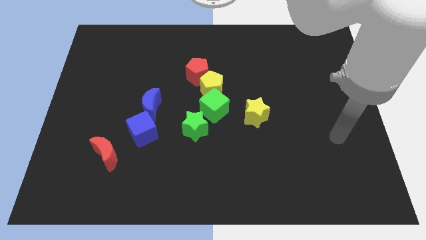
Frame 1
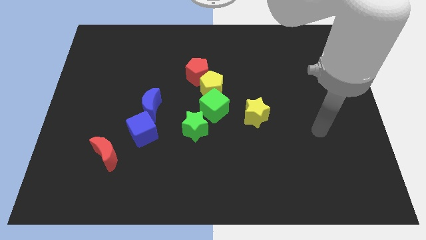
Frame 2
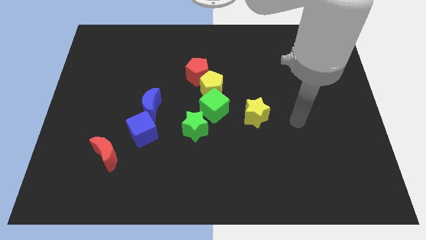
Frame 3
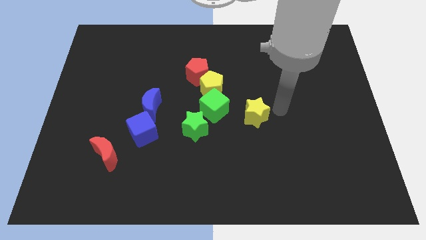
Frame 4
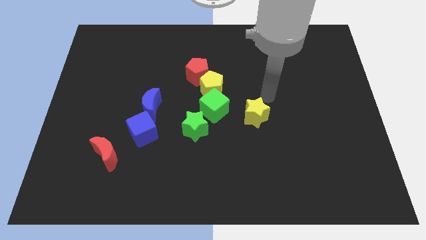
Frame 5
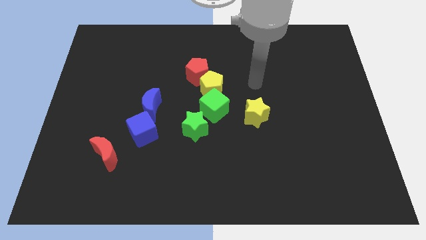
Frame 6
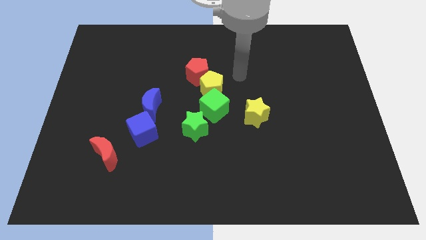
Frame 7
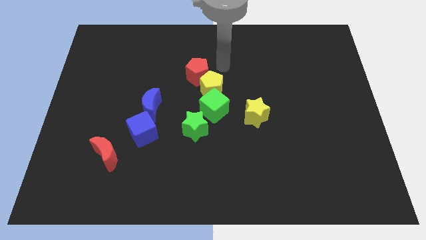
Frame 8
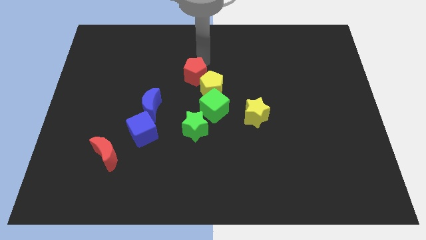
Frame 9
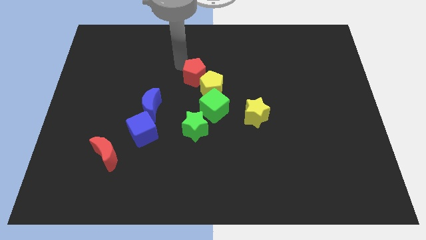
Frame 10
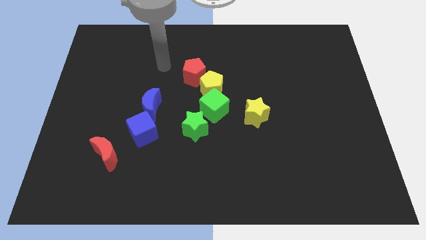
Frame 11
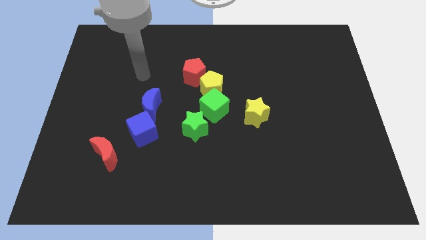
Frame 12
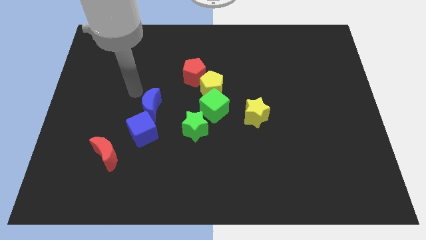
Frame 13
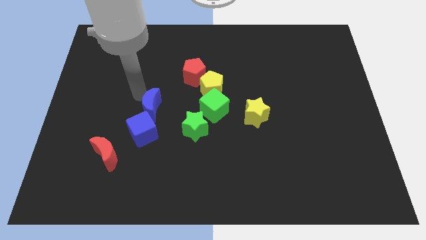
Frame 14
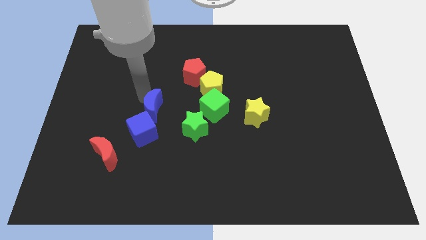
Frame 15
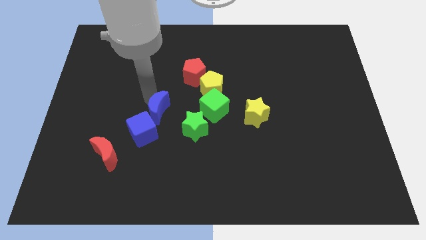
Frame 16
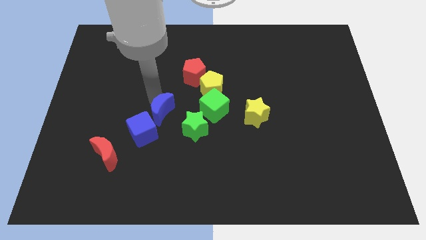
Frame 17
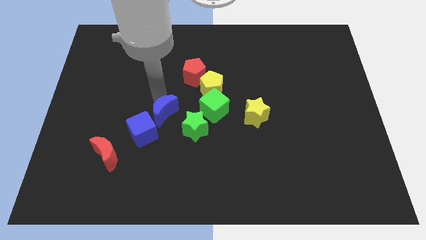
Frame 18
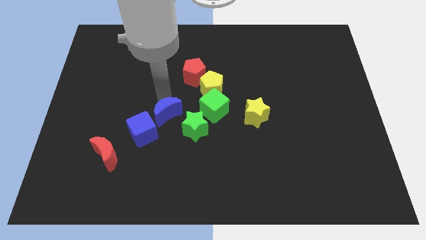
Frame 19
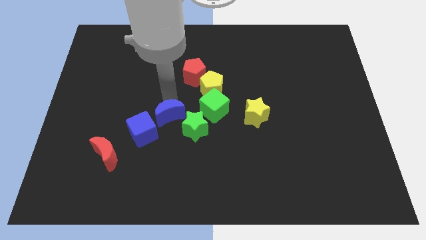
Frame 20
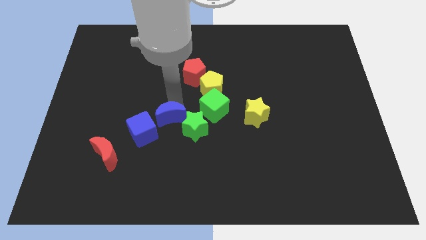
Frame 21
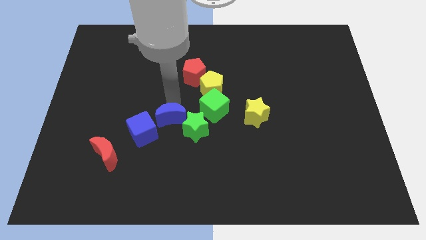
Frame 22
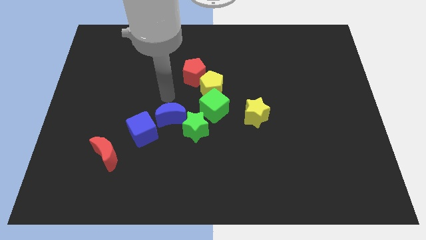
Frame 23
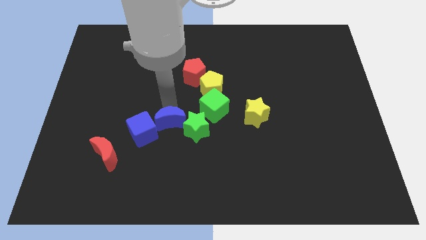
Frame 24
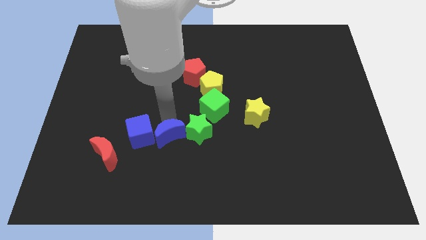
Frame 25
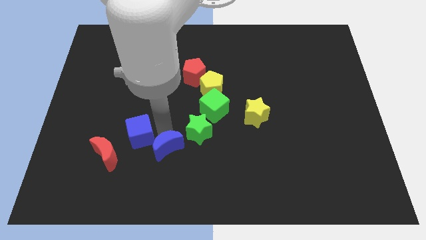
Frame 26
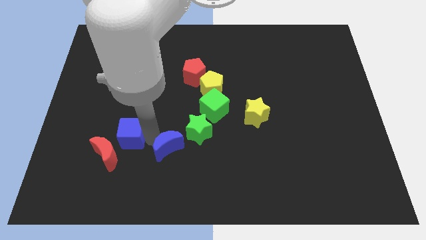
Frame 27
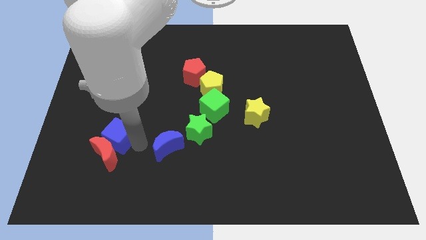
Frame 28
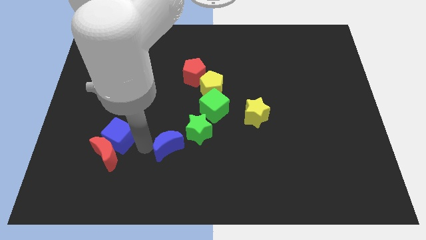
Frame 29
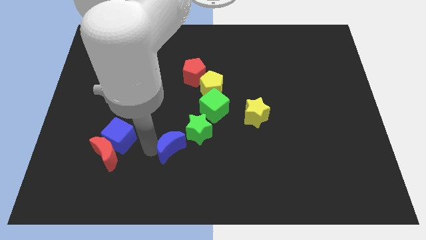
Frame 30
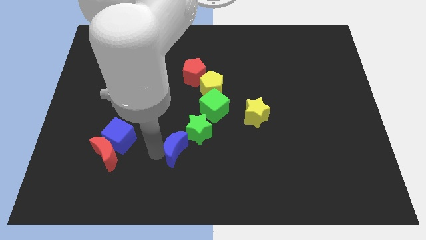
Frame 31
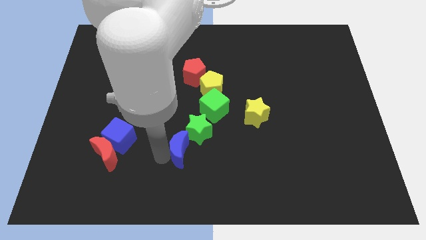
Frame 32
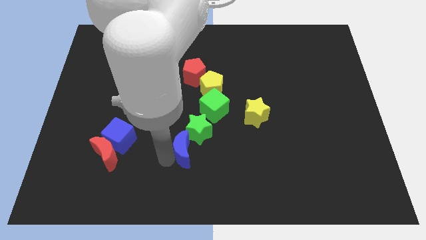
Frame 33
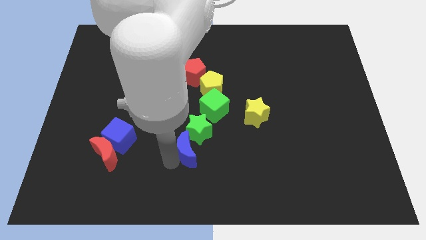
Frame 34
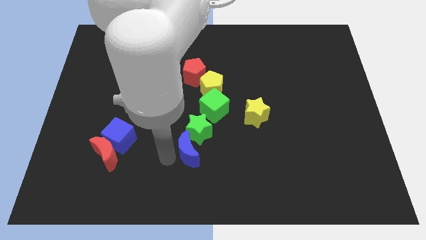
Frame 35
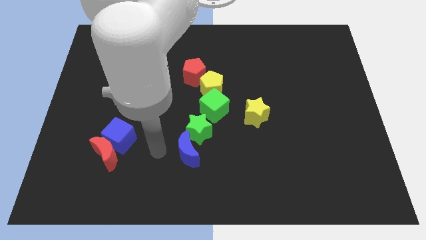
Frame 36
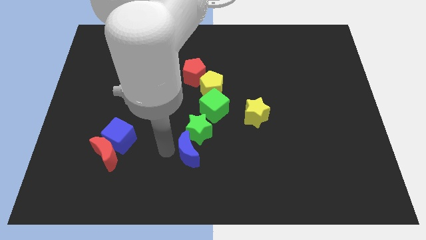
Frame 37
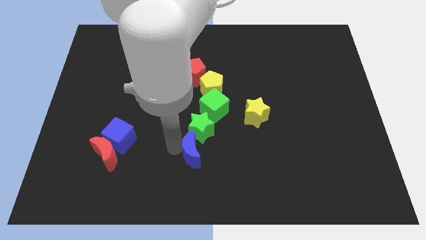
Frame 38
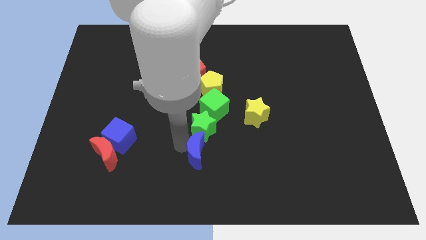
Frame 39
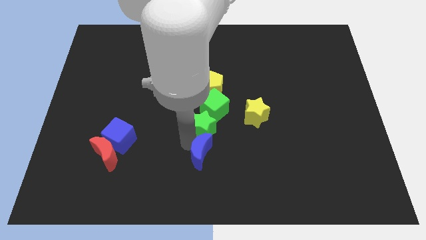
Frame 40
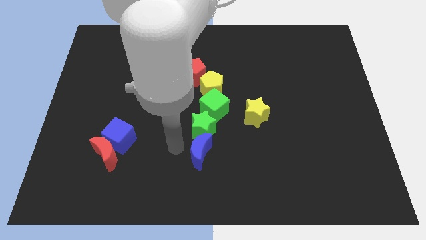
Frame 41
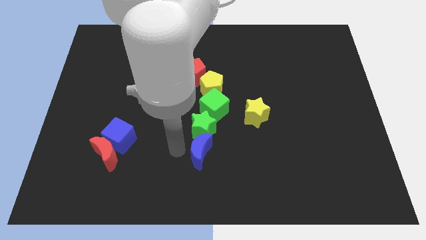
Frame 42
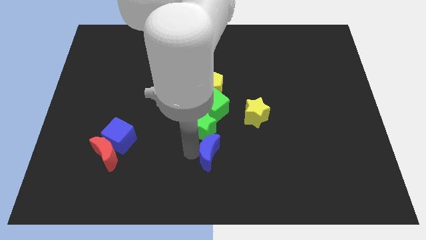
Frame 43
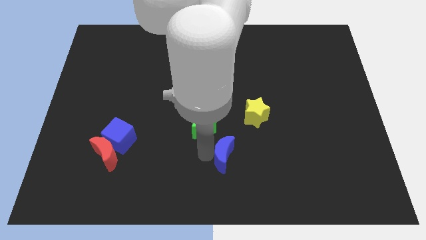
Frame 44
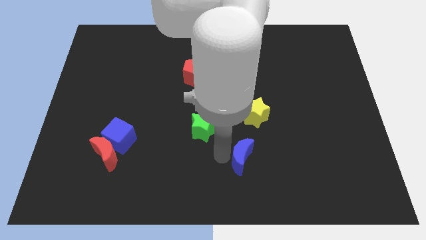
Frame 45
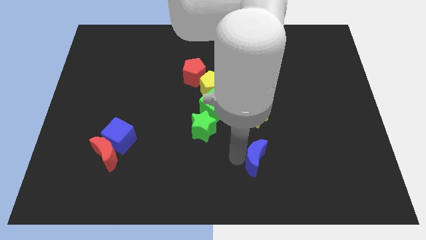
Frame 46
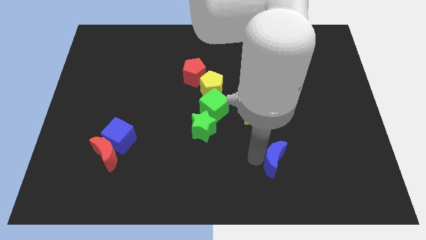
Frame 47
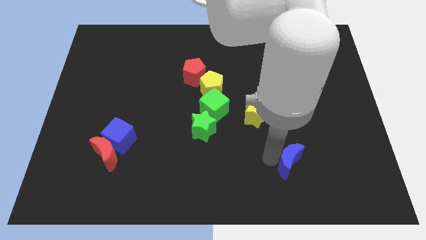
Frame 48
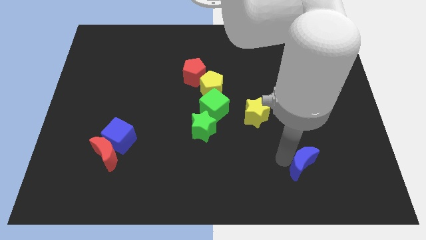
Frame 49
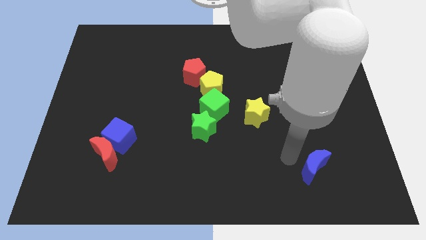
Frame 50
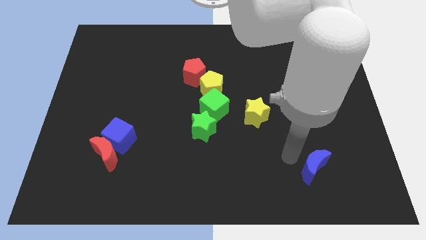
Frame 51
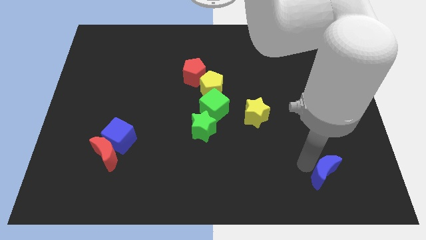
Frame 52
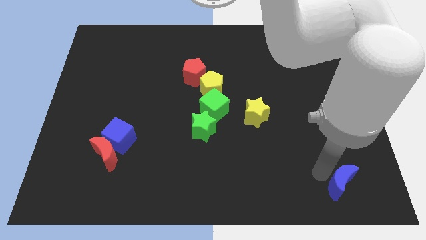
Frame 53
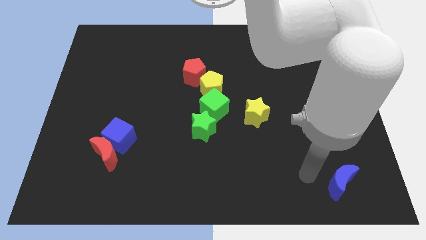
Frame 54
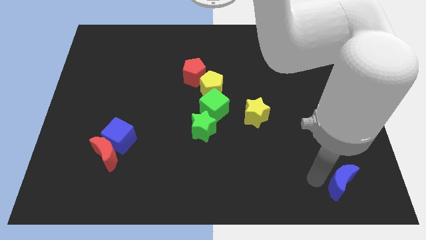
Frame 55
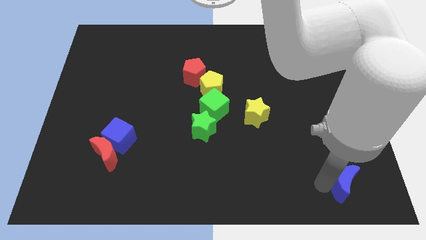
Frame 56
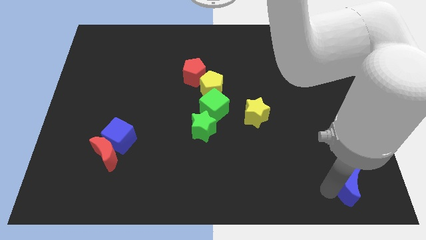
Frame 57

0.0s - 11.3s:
move the blue moon to the bottom right corner

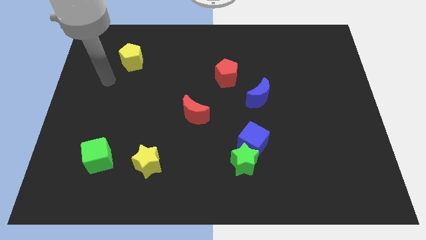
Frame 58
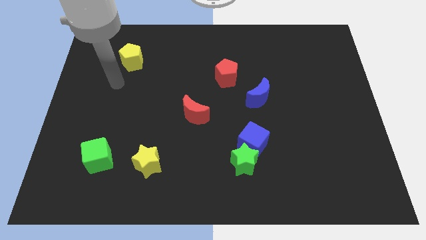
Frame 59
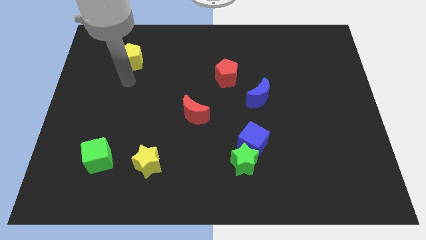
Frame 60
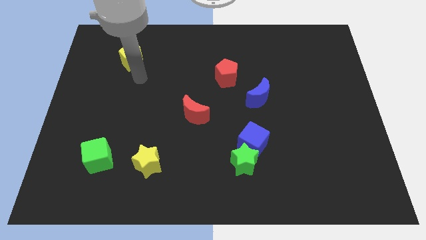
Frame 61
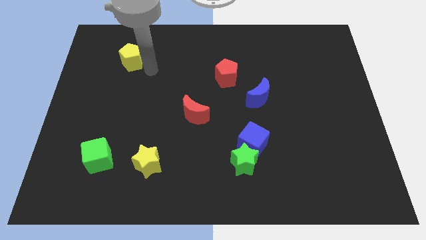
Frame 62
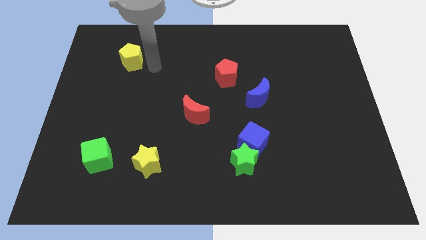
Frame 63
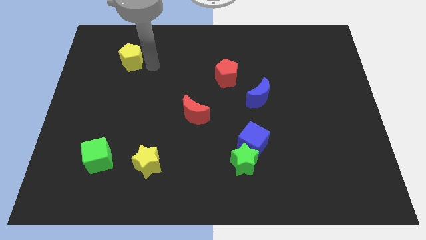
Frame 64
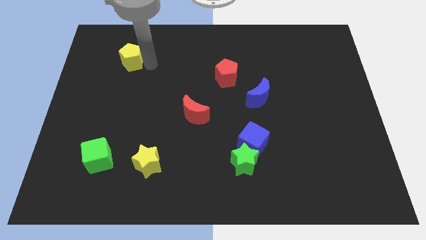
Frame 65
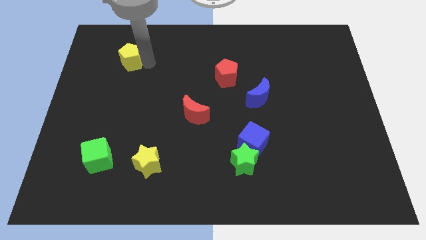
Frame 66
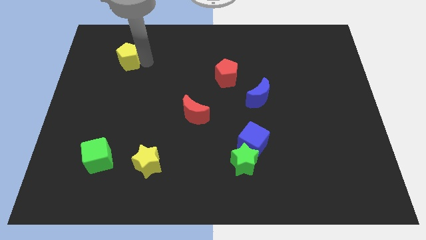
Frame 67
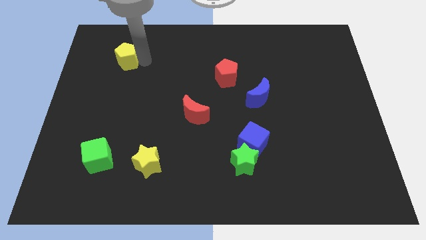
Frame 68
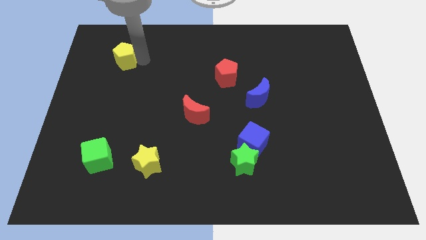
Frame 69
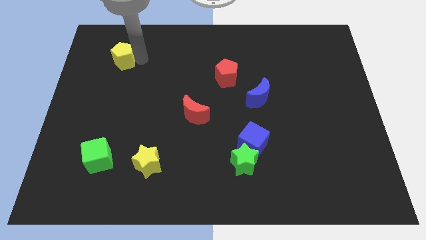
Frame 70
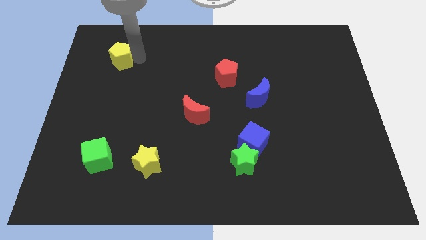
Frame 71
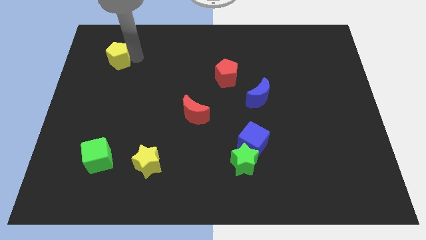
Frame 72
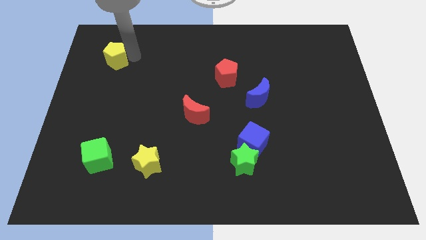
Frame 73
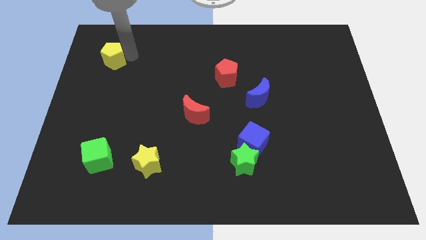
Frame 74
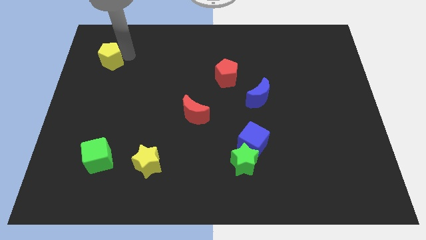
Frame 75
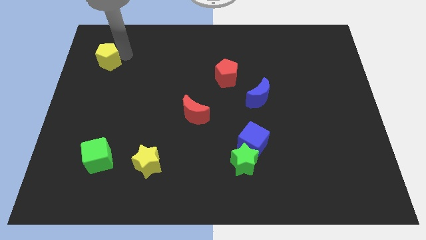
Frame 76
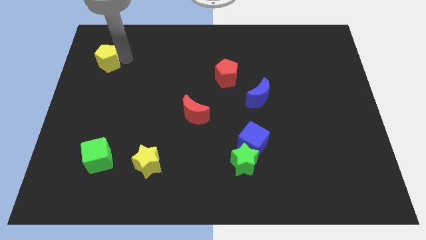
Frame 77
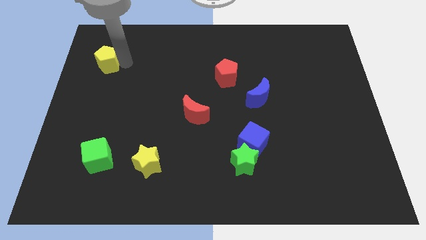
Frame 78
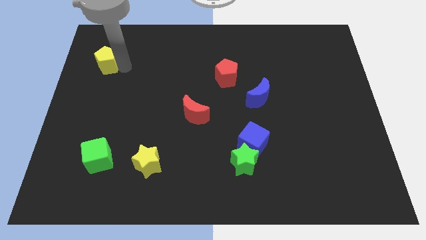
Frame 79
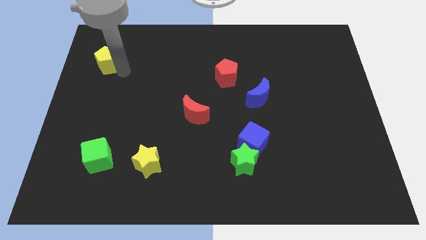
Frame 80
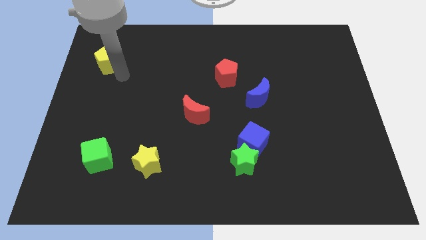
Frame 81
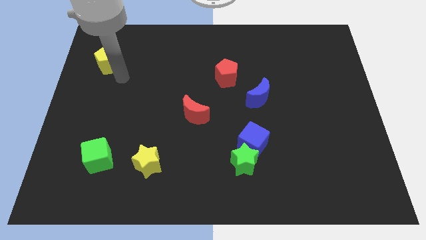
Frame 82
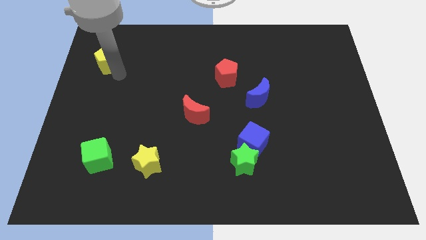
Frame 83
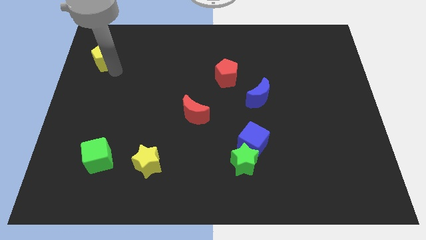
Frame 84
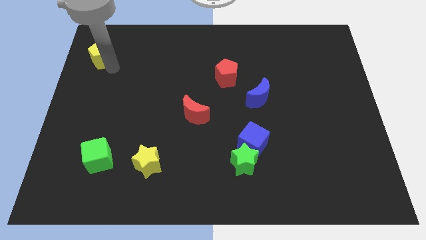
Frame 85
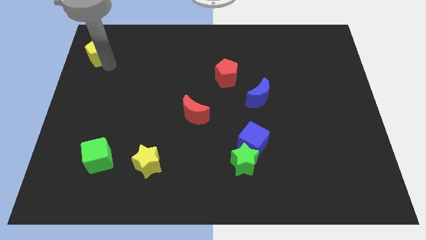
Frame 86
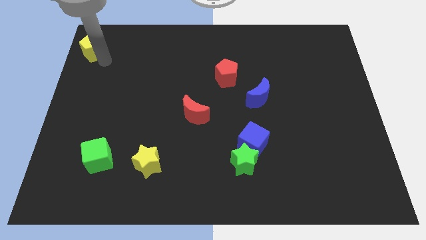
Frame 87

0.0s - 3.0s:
push the yellow pentagon to the upper left corner
